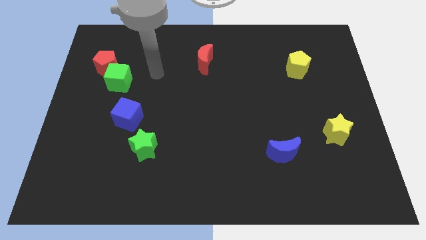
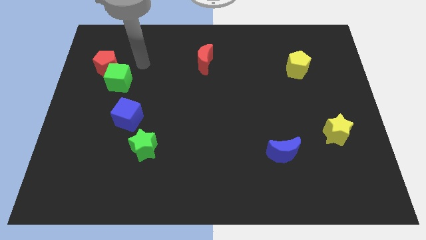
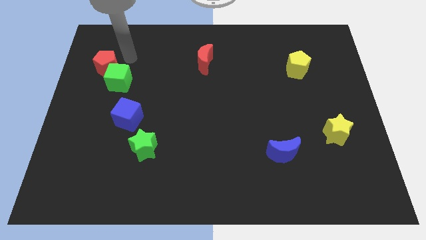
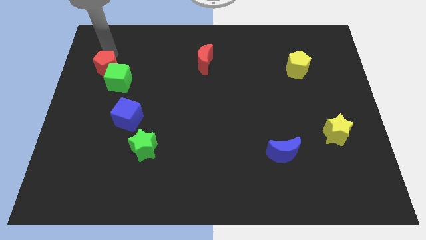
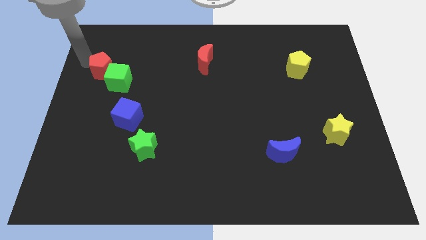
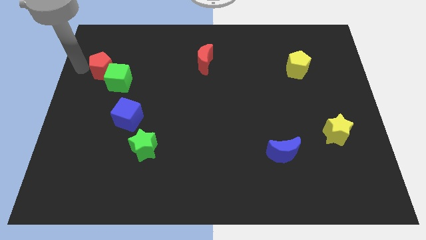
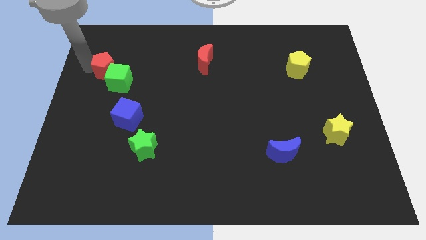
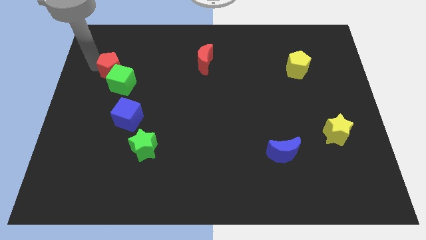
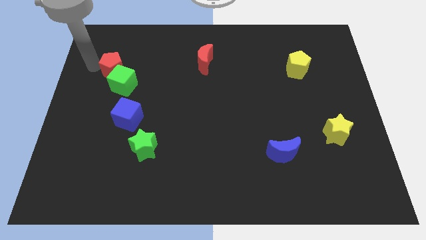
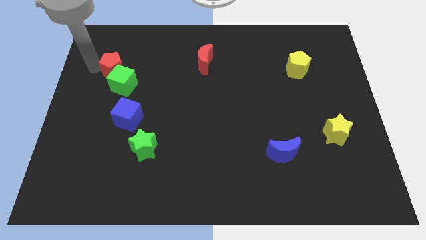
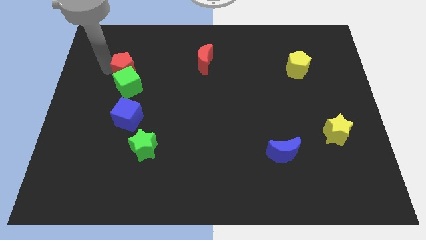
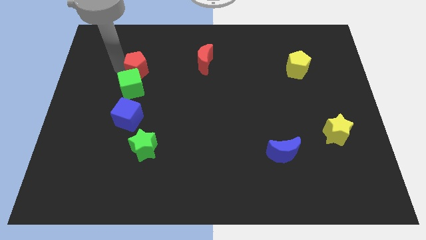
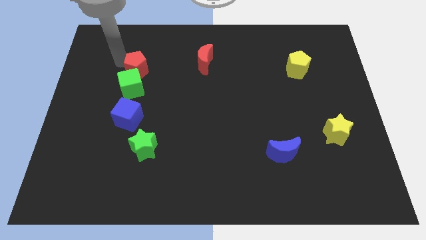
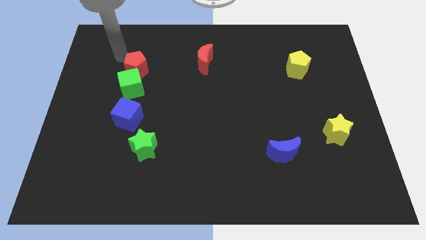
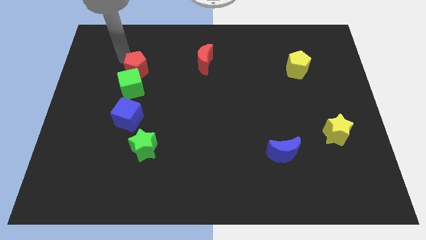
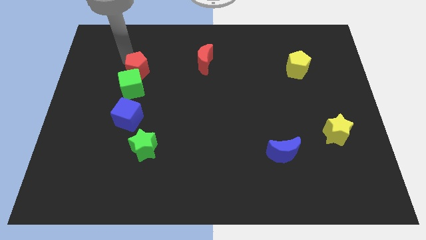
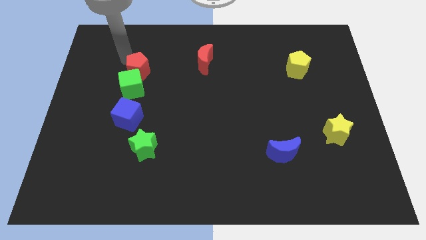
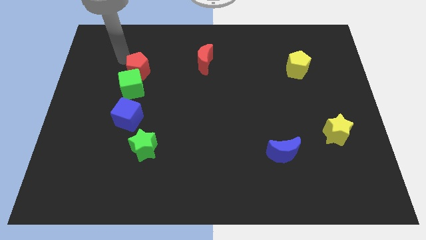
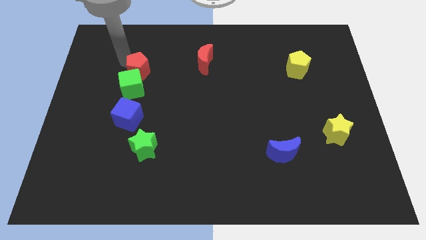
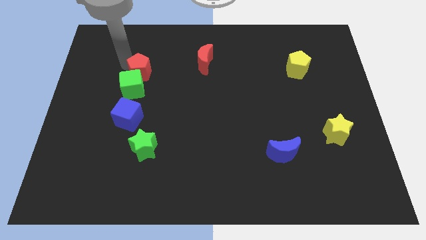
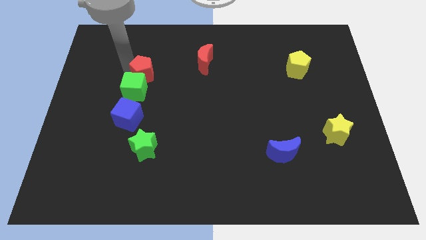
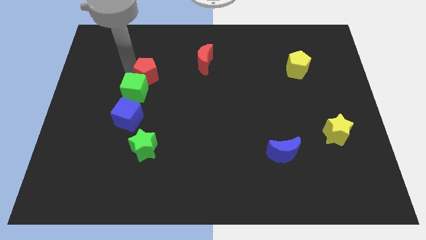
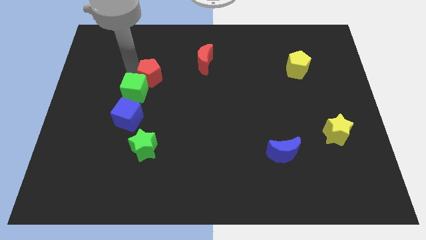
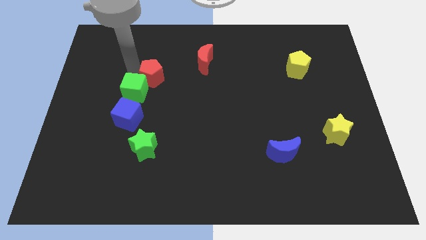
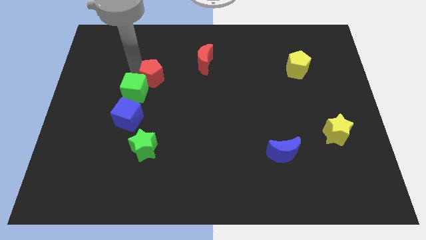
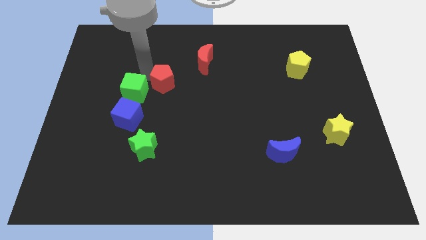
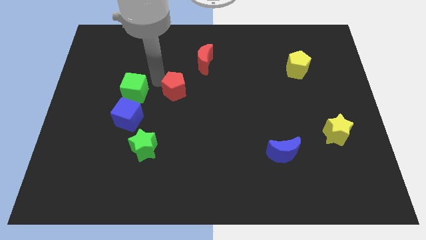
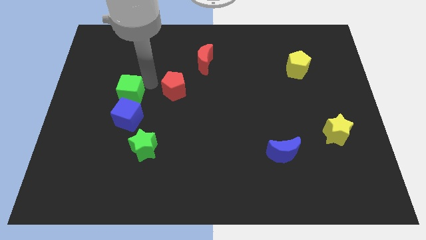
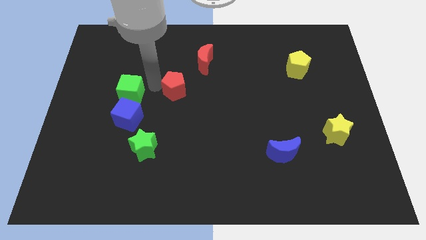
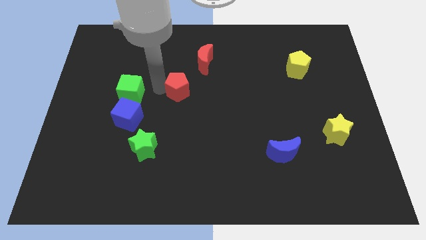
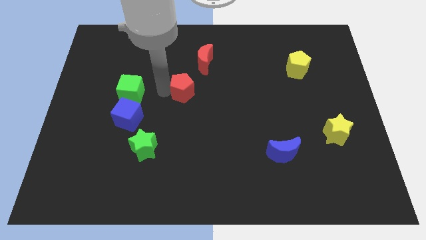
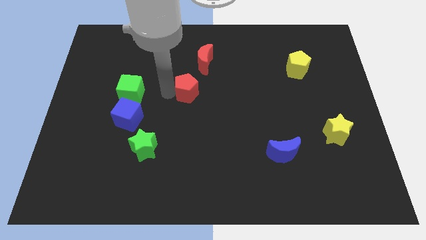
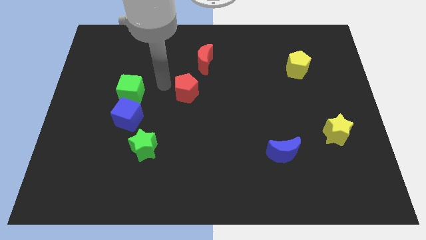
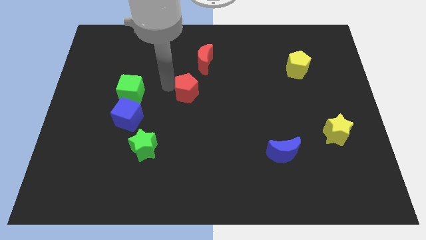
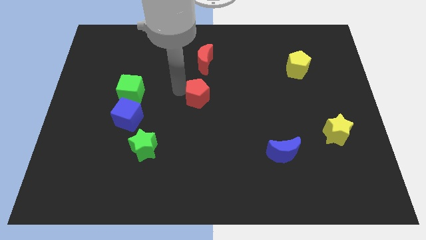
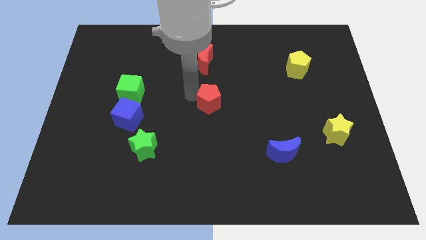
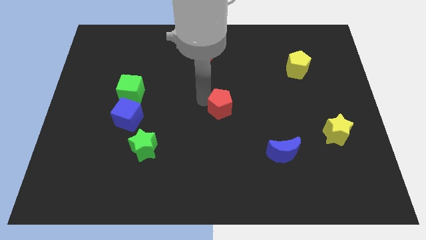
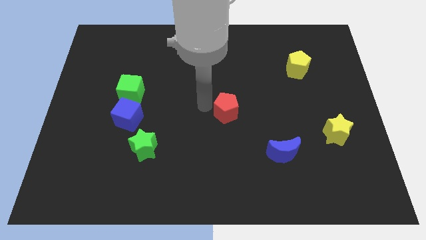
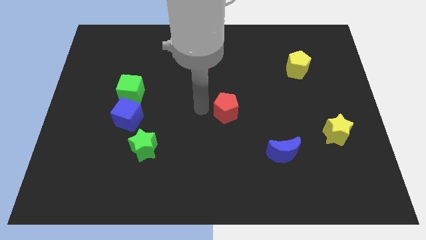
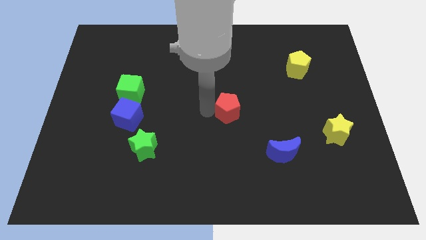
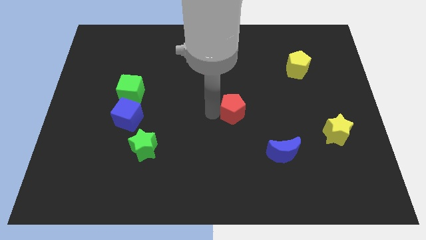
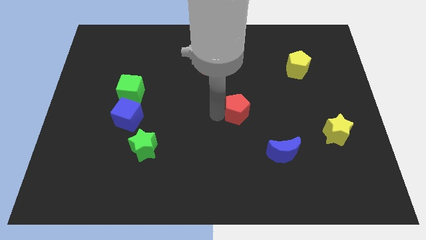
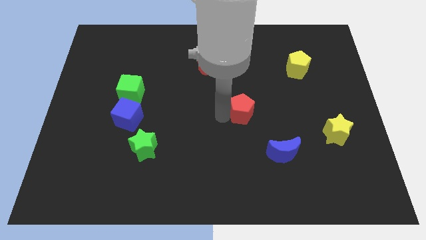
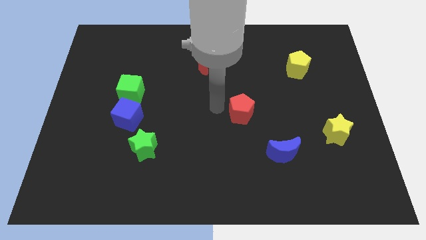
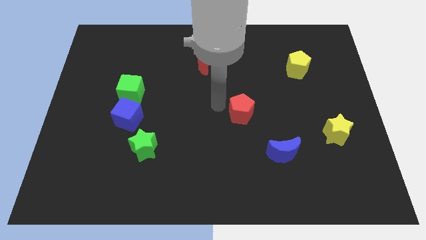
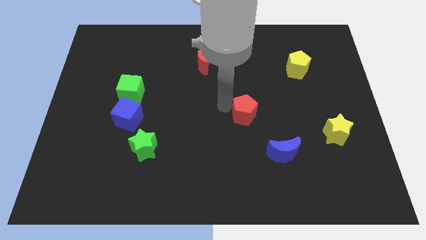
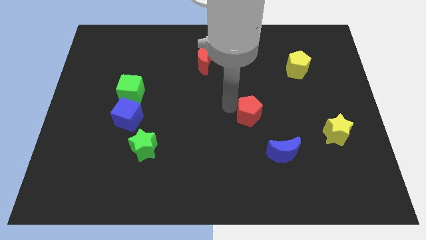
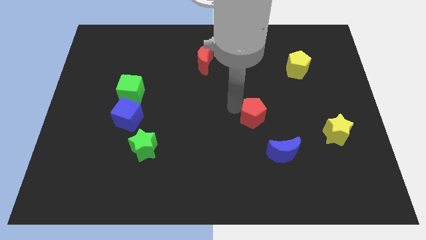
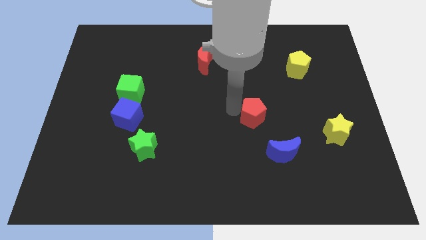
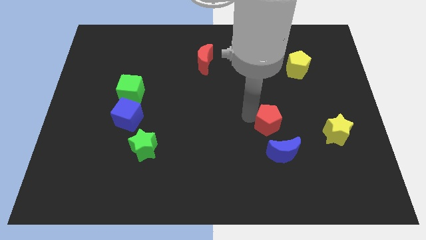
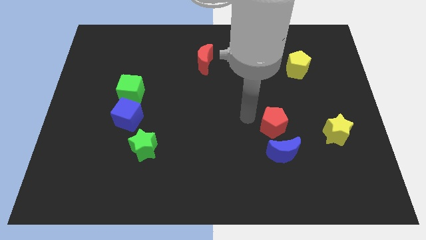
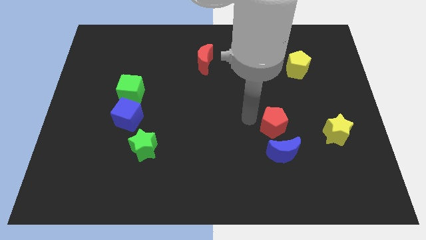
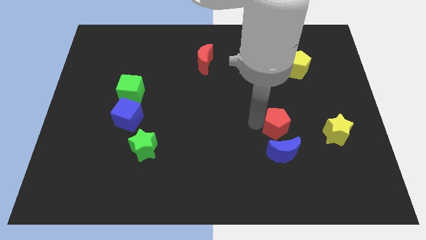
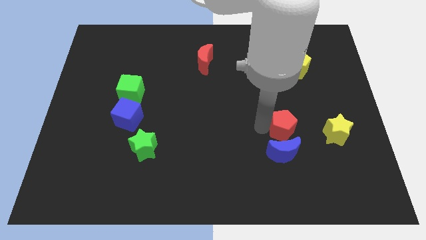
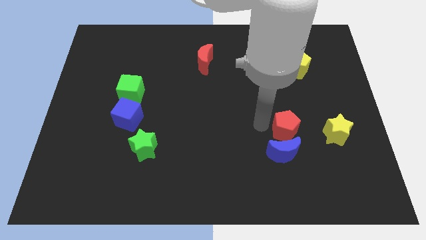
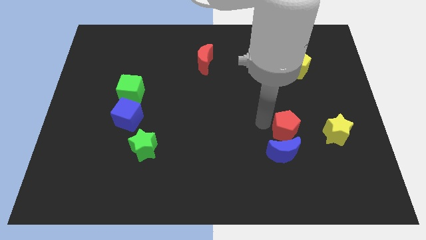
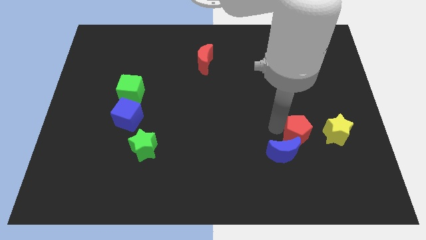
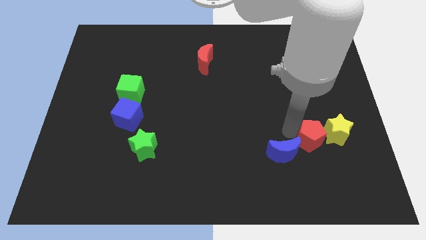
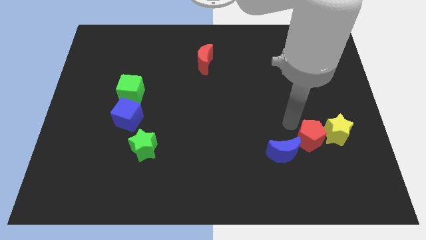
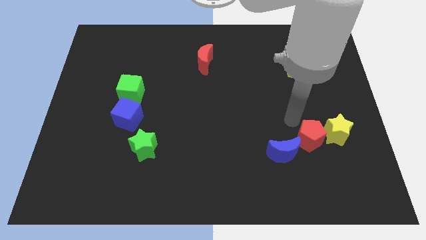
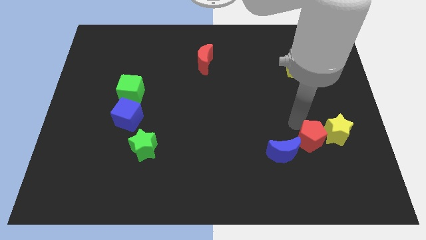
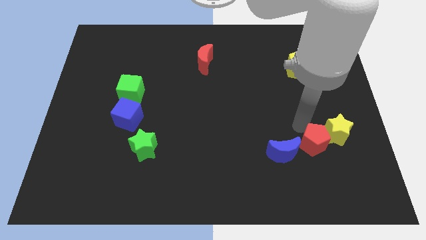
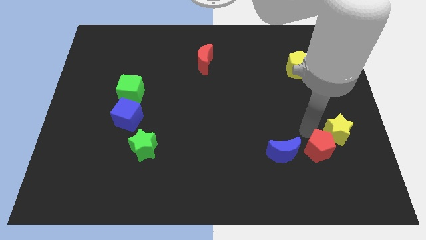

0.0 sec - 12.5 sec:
move the red pentagon to the bottom side of the yellow star

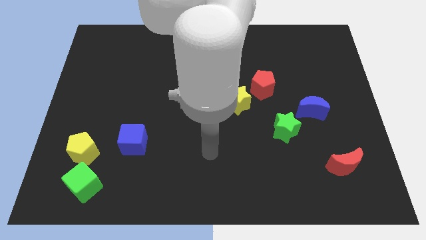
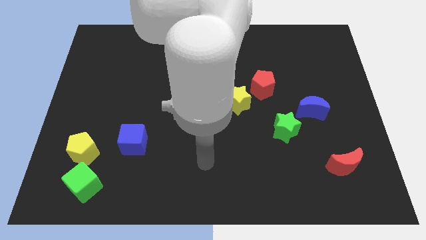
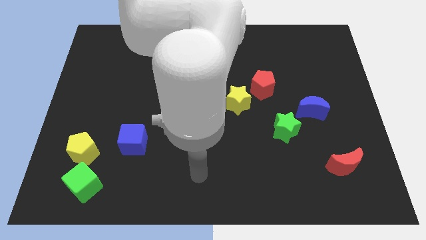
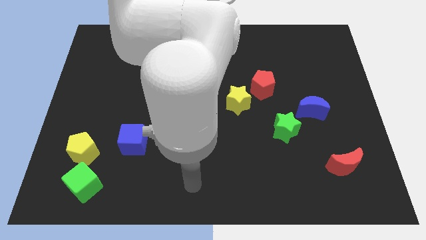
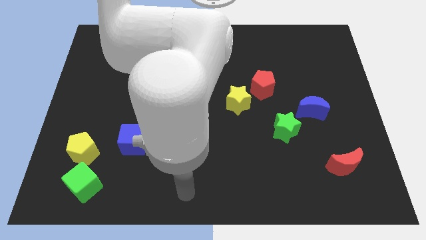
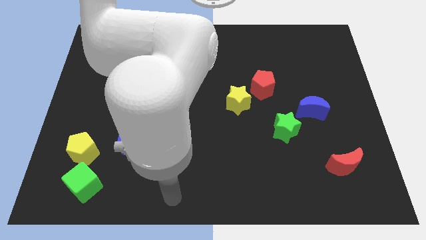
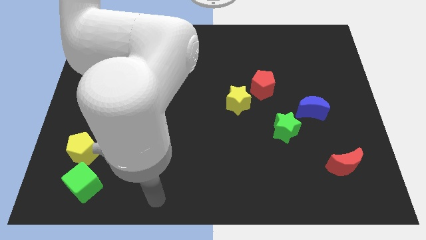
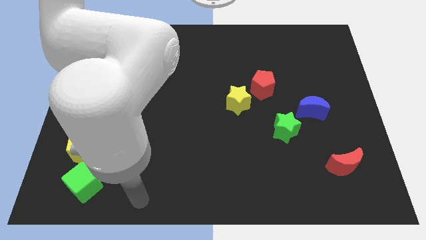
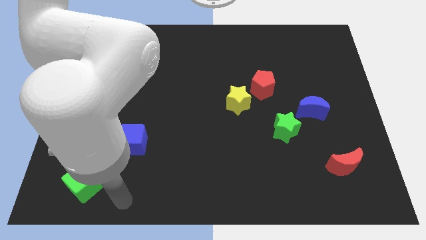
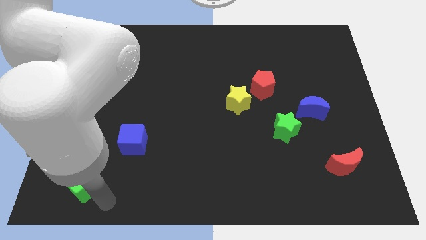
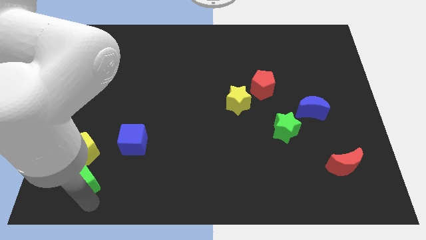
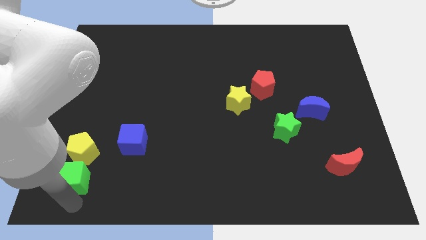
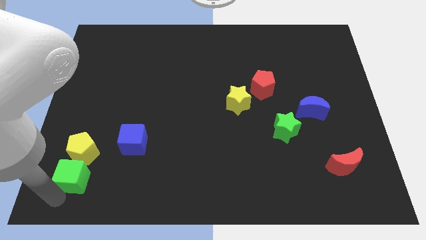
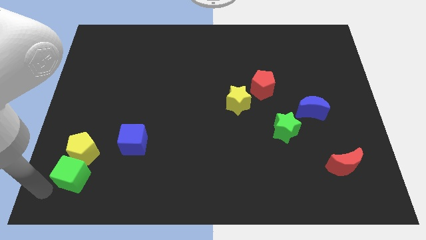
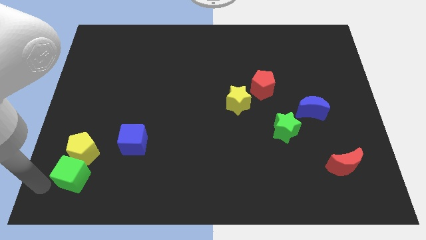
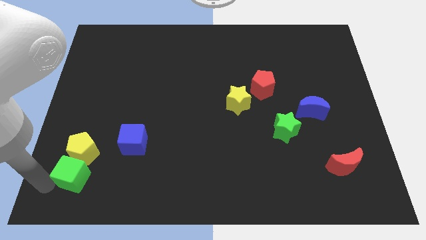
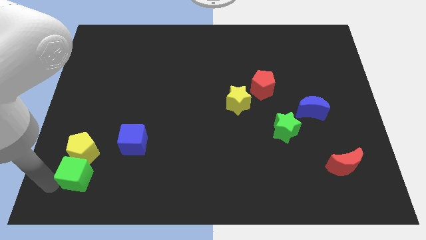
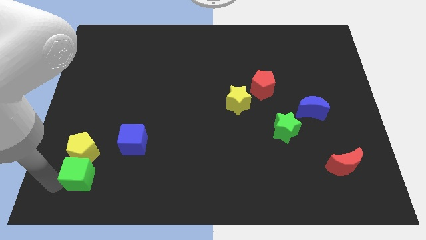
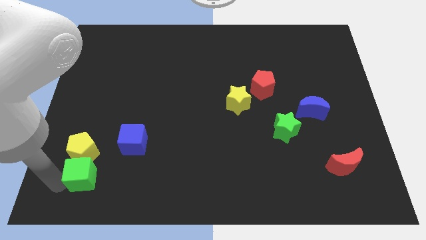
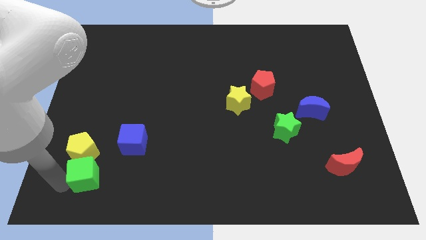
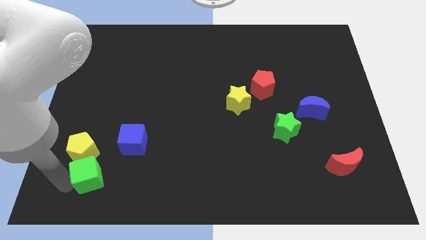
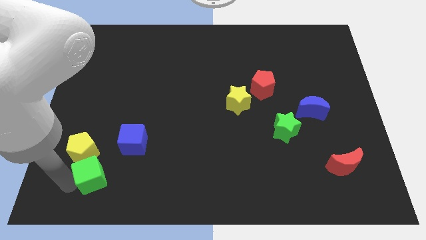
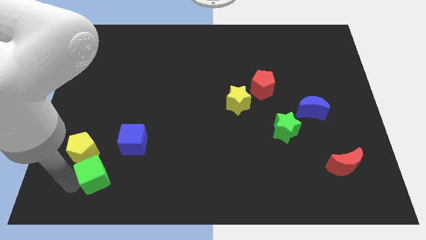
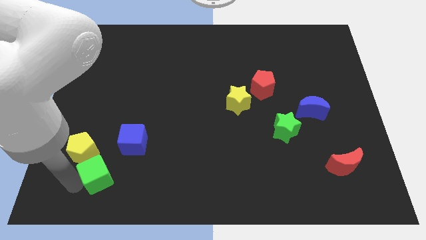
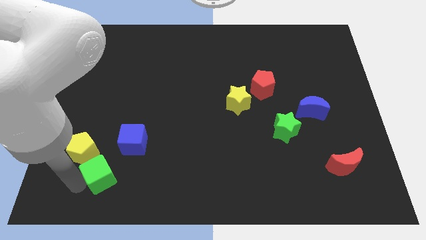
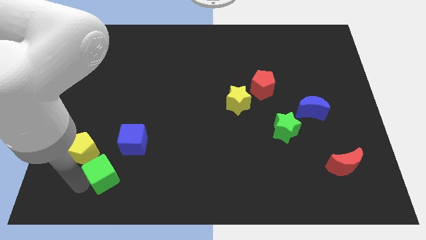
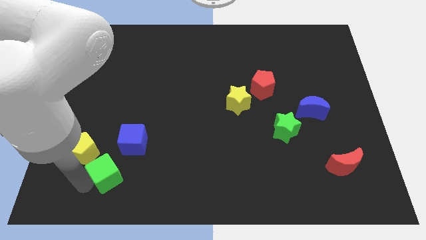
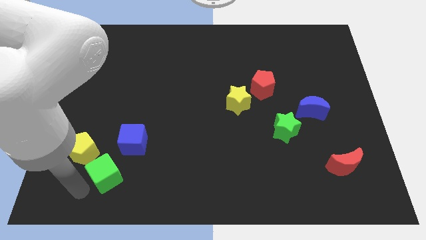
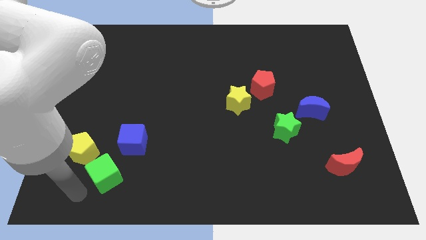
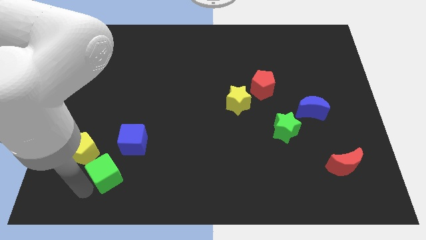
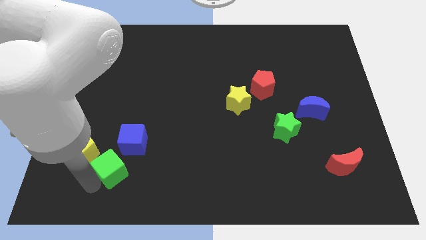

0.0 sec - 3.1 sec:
push the green cube to the right side of the yellow pentagon
